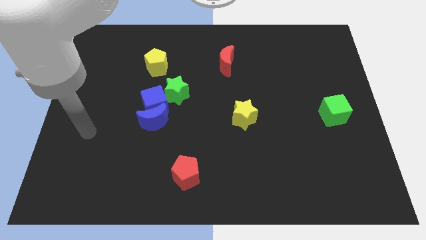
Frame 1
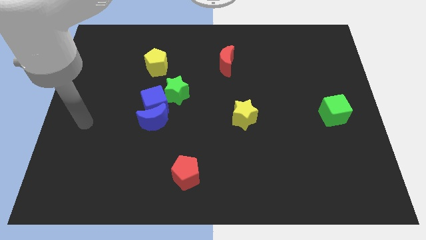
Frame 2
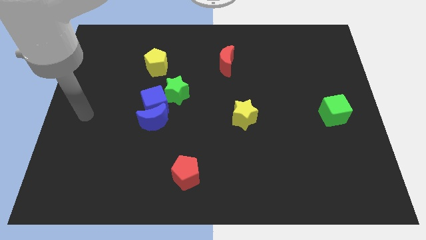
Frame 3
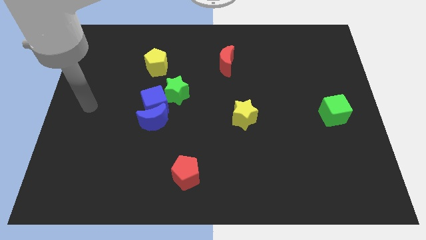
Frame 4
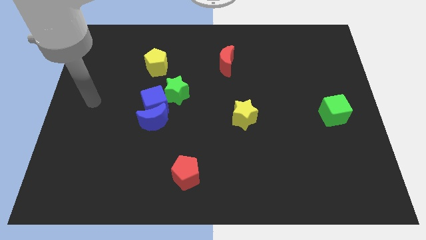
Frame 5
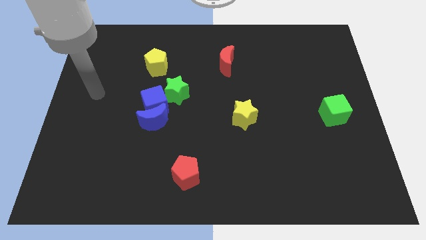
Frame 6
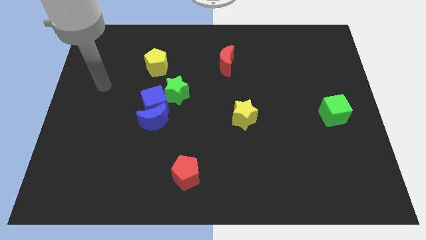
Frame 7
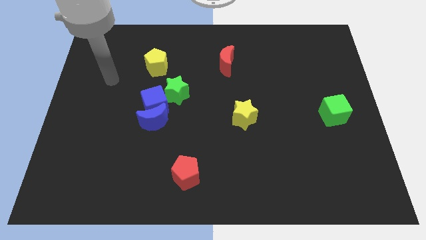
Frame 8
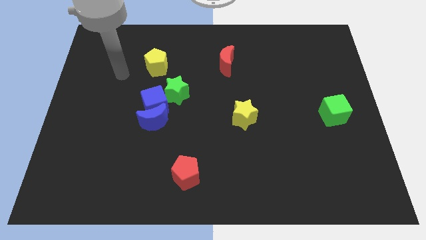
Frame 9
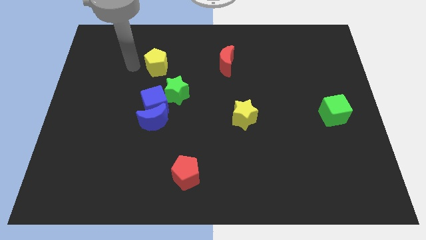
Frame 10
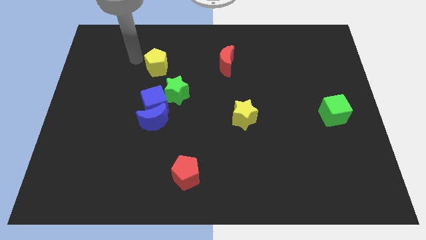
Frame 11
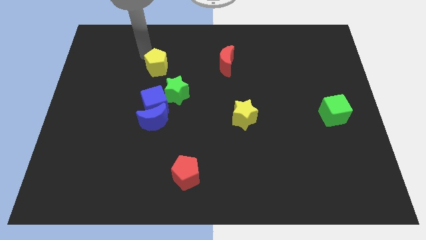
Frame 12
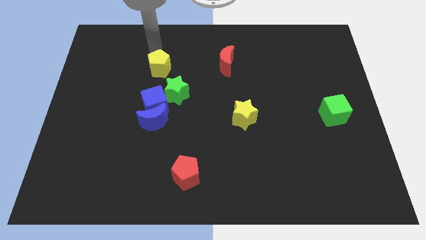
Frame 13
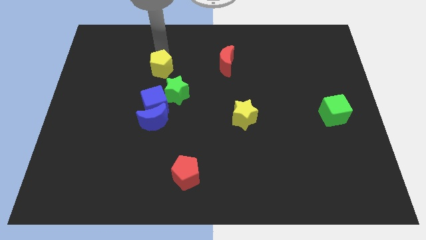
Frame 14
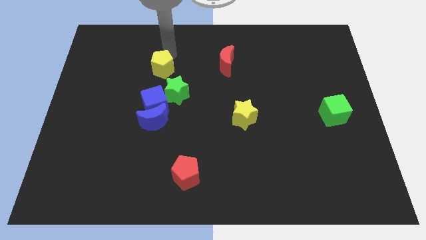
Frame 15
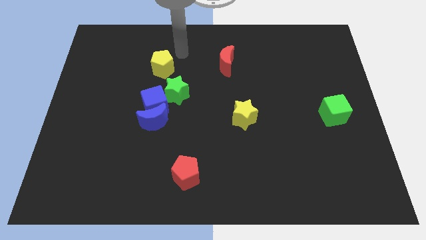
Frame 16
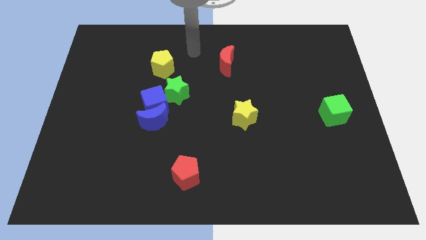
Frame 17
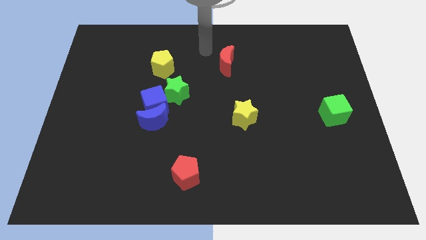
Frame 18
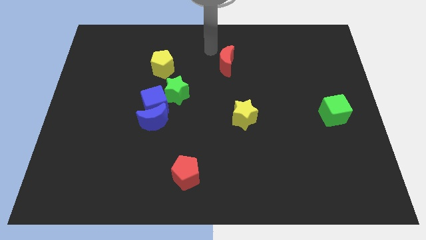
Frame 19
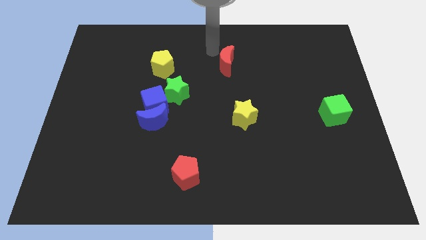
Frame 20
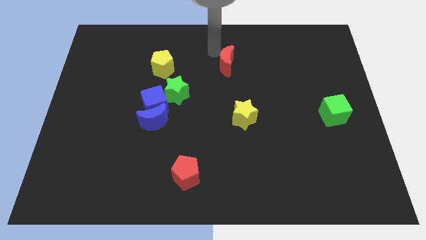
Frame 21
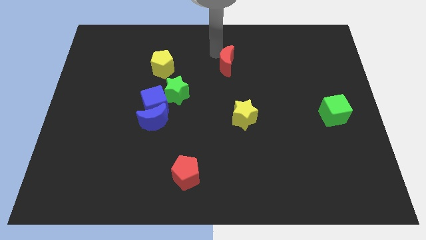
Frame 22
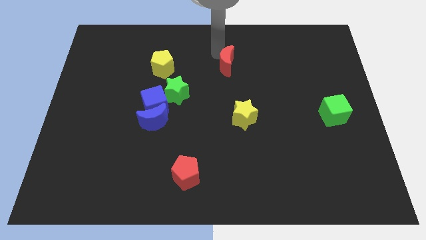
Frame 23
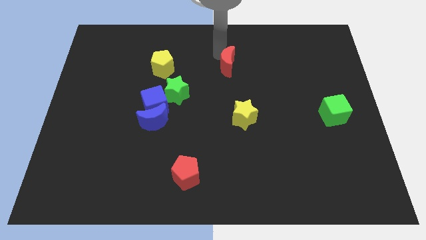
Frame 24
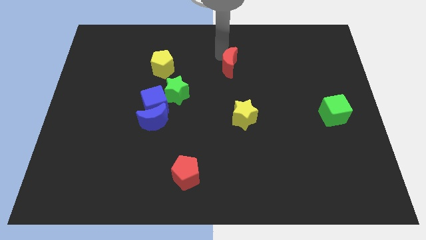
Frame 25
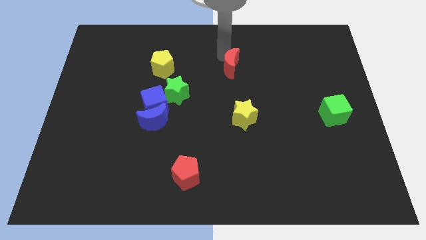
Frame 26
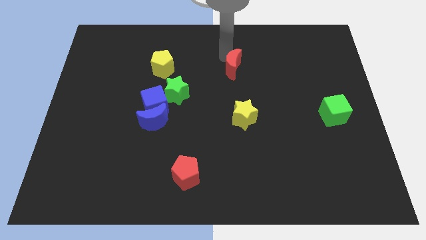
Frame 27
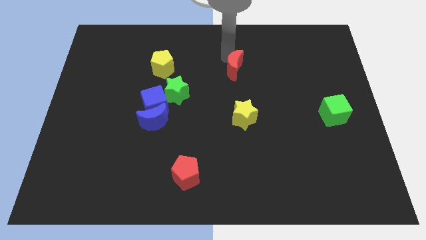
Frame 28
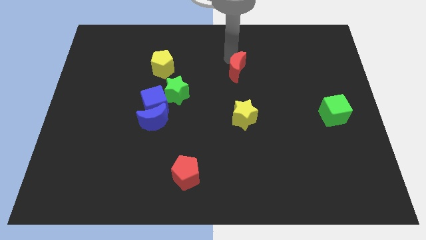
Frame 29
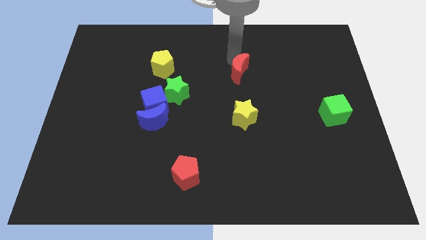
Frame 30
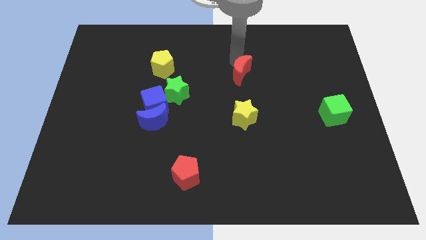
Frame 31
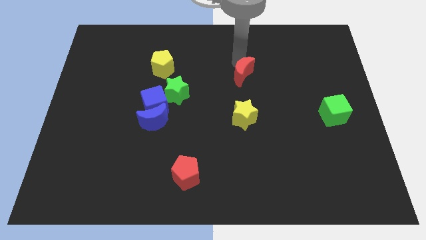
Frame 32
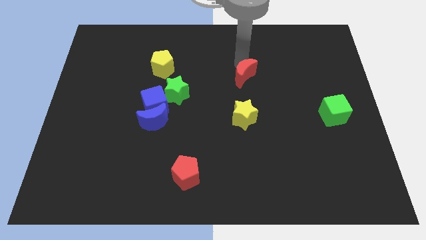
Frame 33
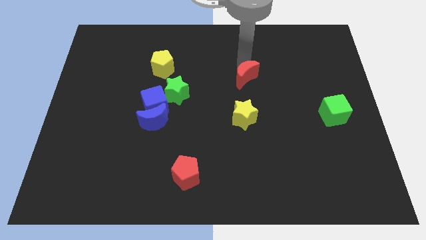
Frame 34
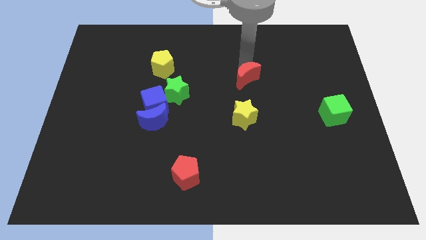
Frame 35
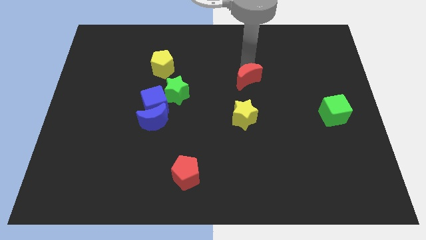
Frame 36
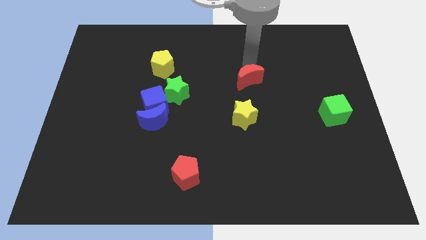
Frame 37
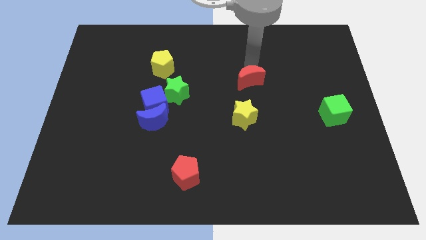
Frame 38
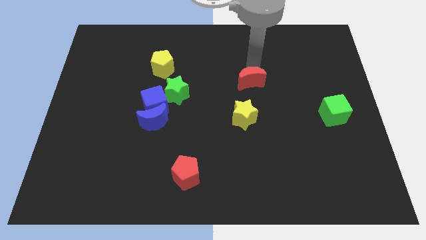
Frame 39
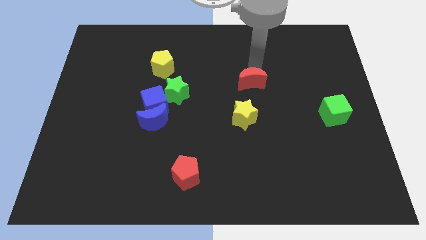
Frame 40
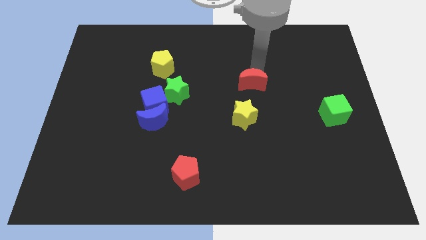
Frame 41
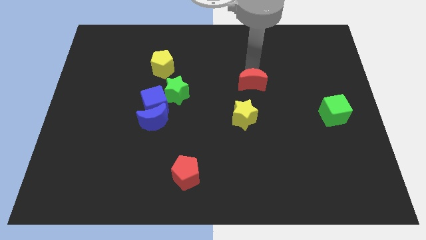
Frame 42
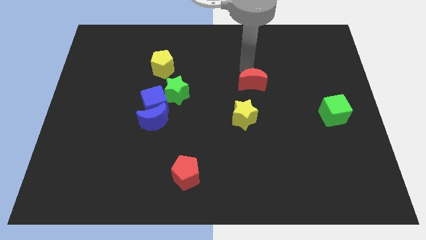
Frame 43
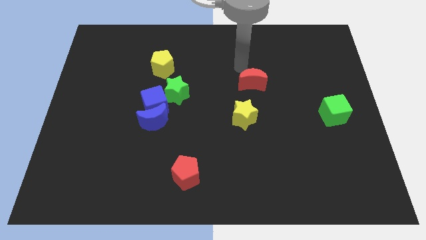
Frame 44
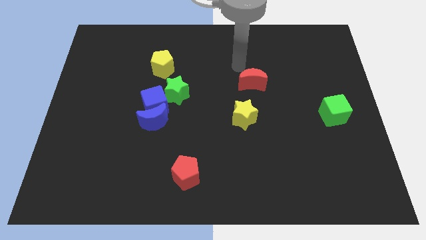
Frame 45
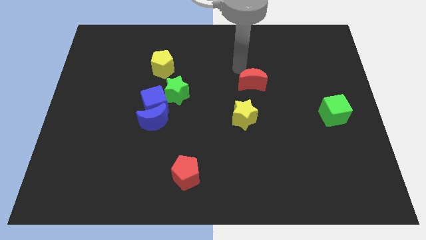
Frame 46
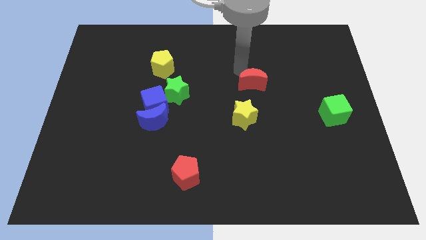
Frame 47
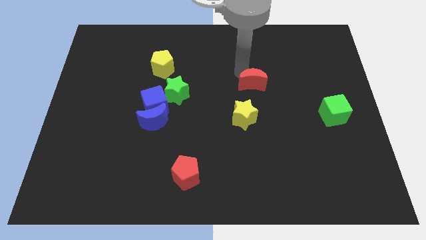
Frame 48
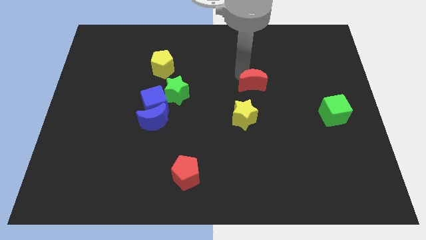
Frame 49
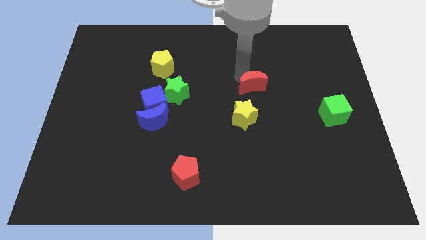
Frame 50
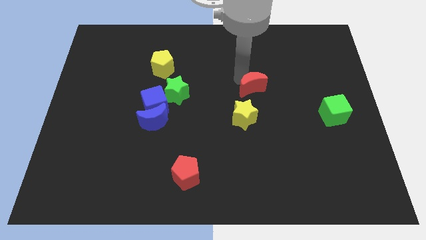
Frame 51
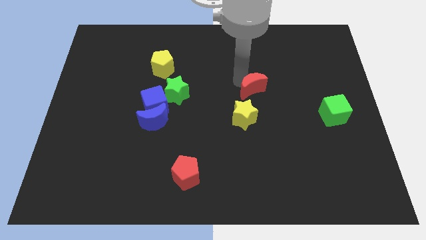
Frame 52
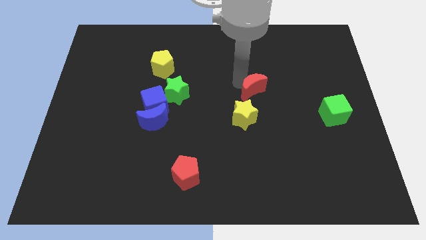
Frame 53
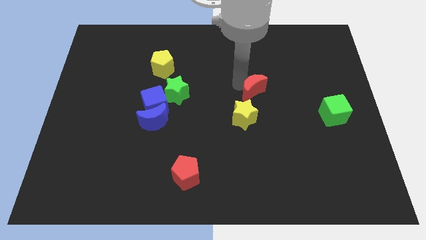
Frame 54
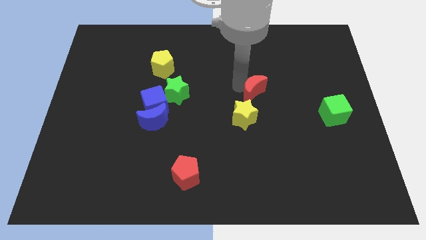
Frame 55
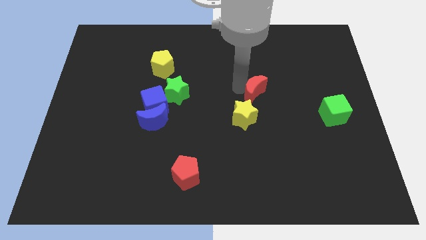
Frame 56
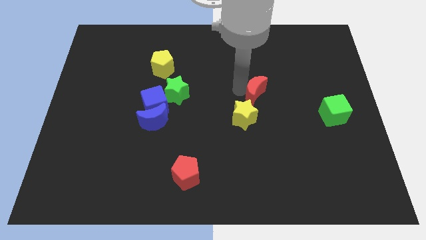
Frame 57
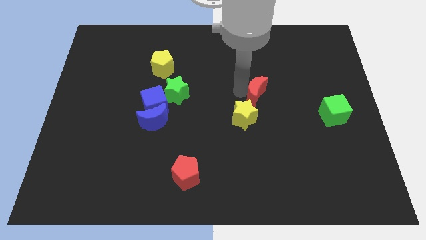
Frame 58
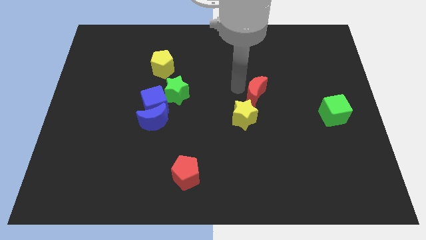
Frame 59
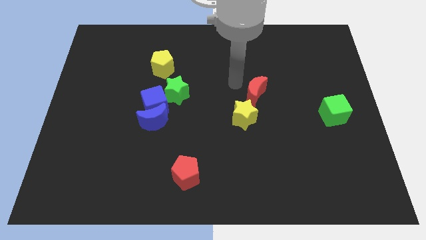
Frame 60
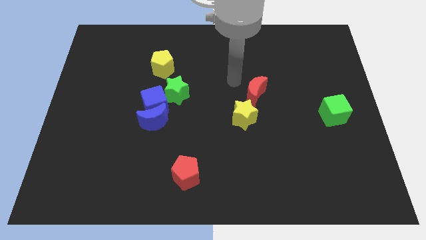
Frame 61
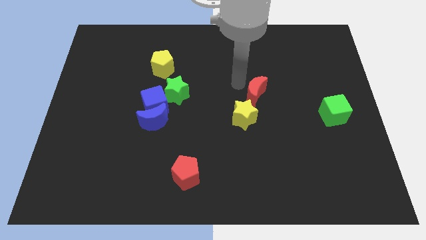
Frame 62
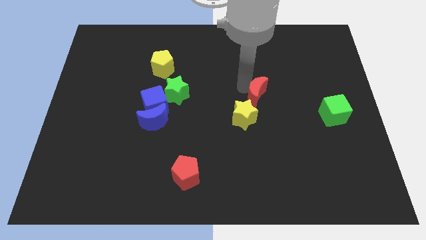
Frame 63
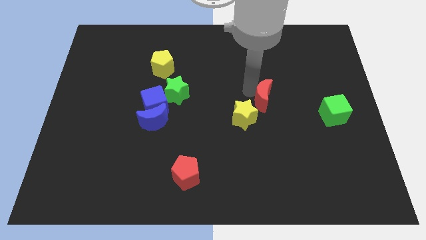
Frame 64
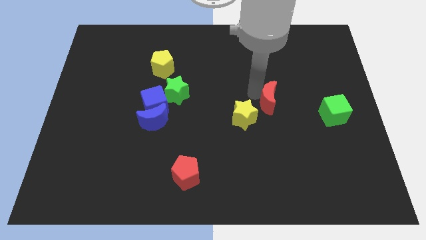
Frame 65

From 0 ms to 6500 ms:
put the red moon to the right side of the yellow star

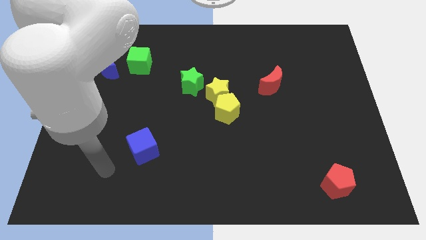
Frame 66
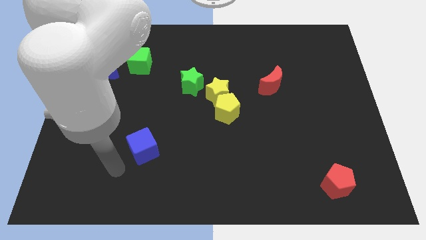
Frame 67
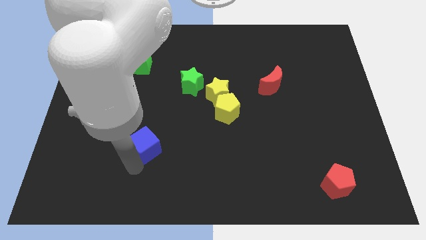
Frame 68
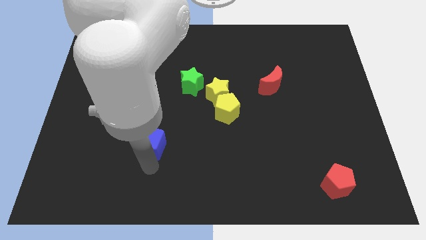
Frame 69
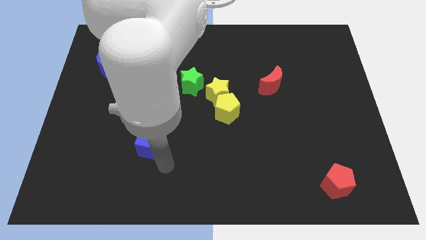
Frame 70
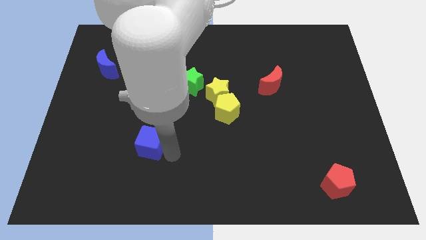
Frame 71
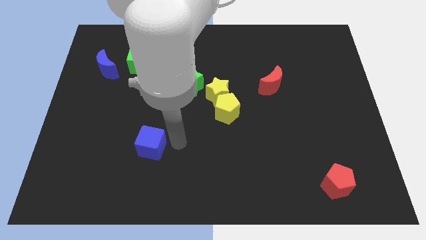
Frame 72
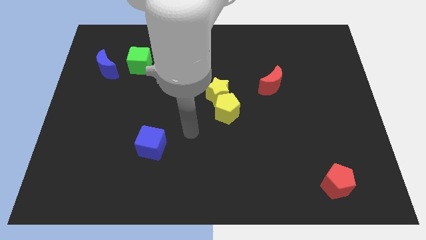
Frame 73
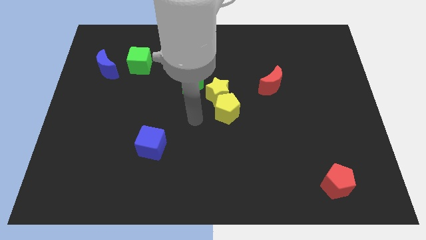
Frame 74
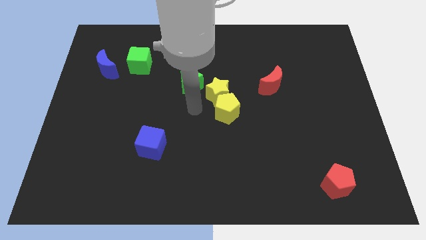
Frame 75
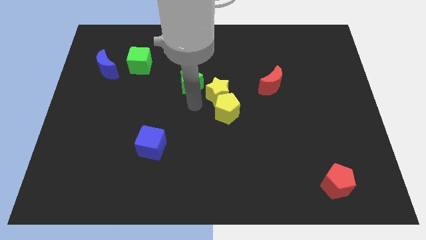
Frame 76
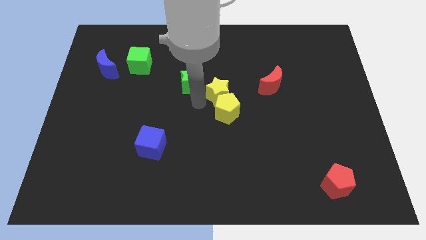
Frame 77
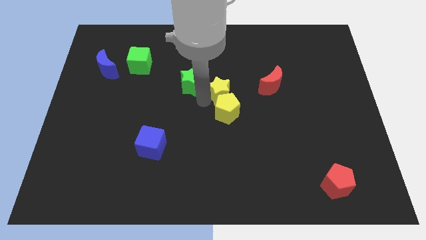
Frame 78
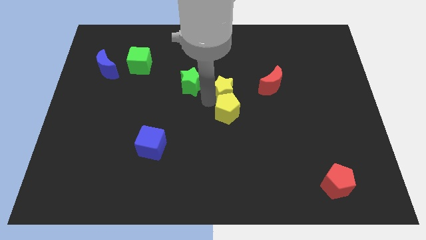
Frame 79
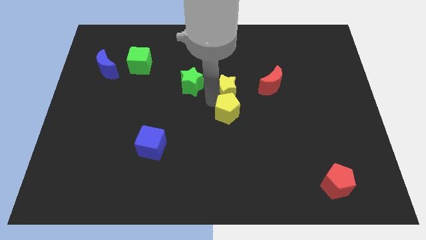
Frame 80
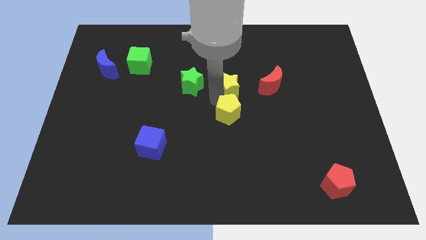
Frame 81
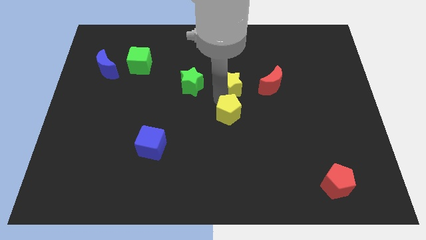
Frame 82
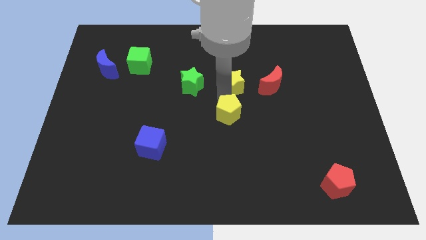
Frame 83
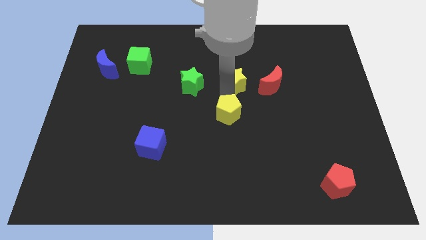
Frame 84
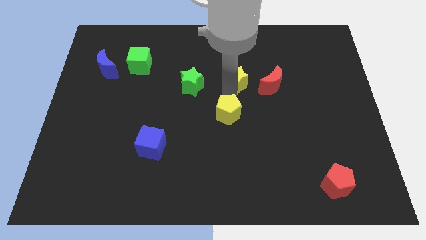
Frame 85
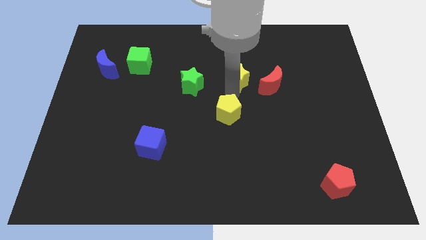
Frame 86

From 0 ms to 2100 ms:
push the yellow star diagonally up and to the left of the red moon
